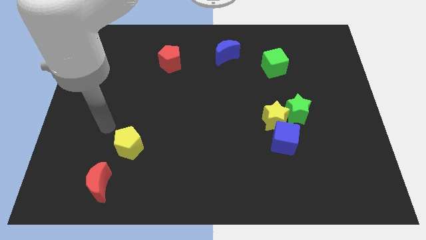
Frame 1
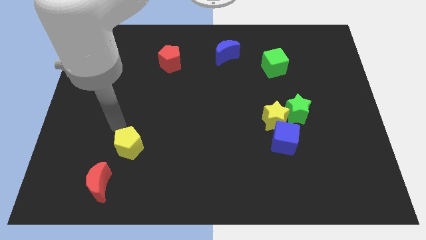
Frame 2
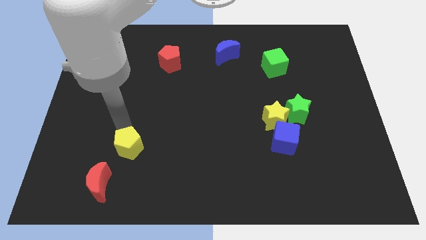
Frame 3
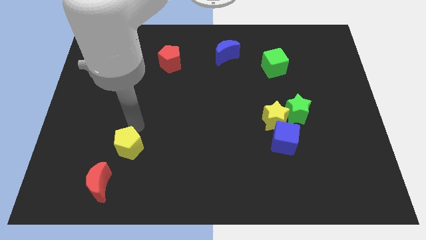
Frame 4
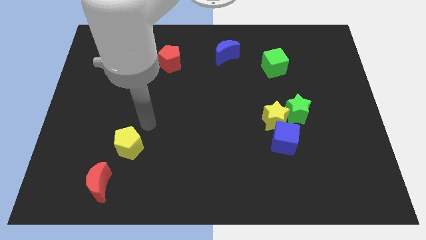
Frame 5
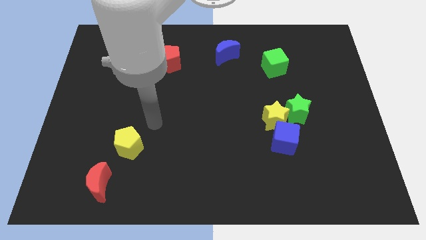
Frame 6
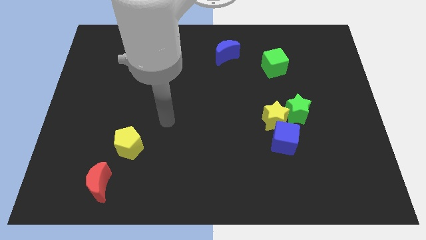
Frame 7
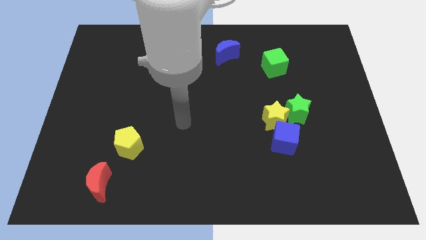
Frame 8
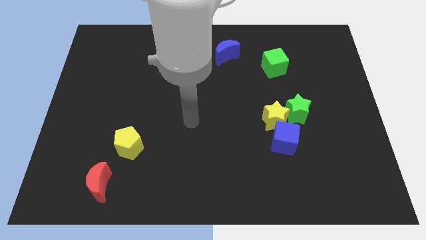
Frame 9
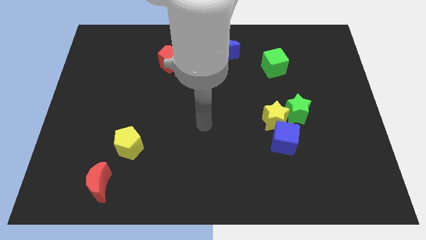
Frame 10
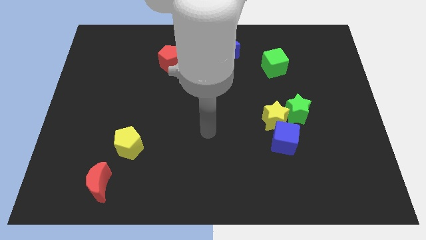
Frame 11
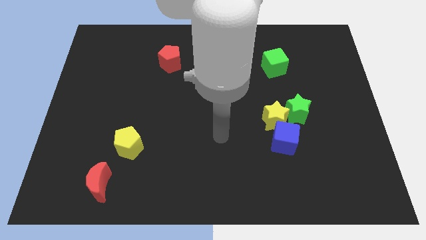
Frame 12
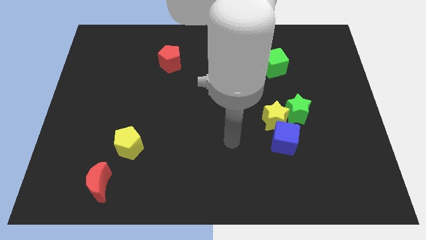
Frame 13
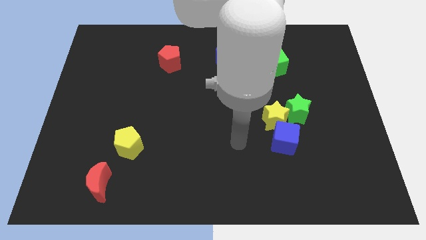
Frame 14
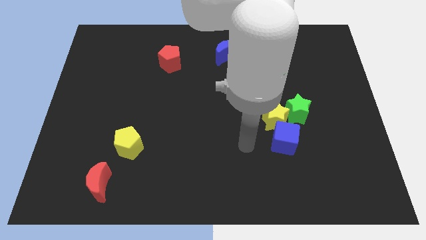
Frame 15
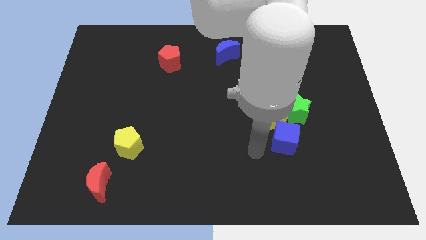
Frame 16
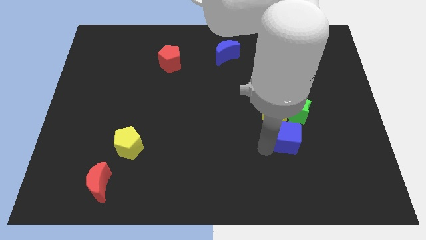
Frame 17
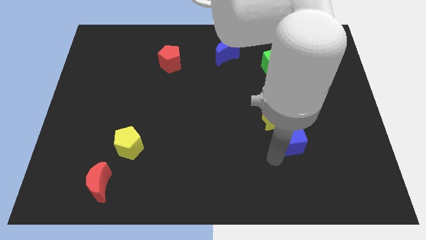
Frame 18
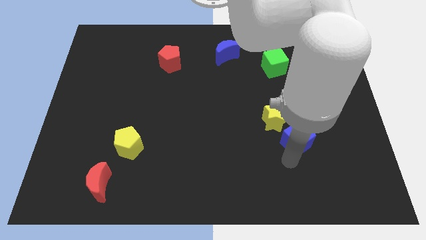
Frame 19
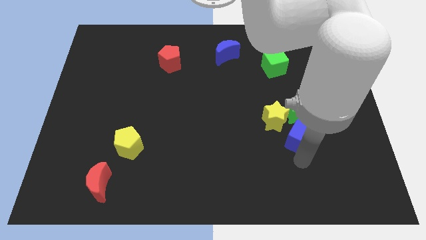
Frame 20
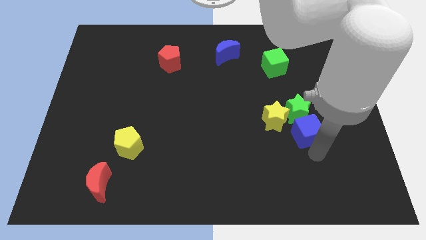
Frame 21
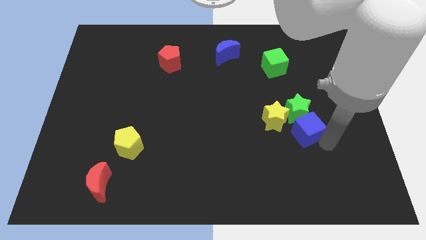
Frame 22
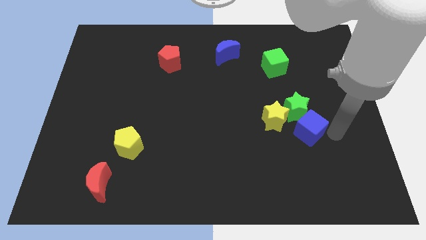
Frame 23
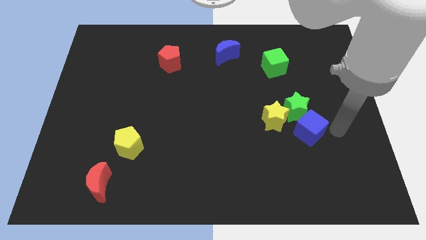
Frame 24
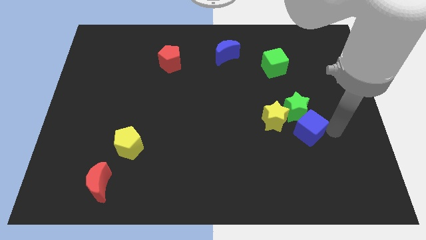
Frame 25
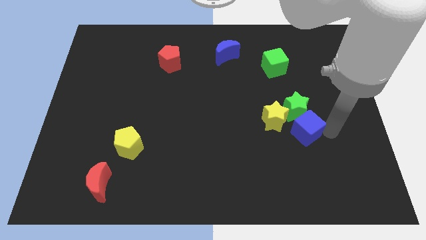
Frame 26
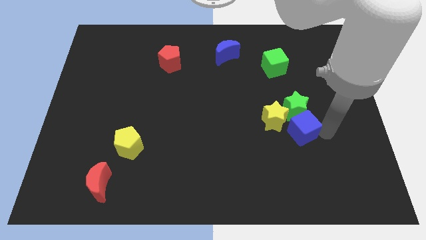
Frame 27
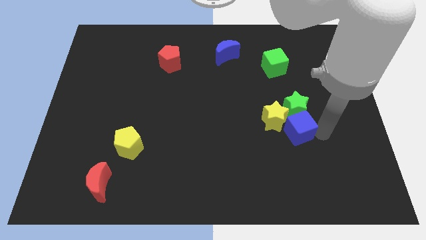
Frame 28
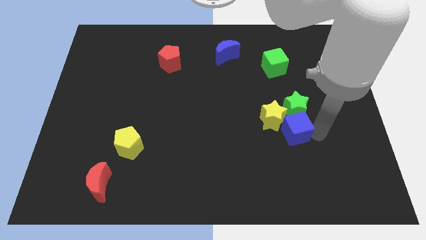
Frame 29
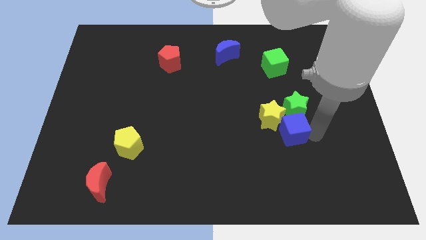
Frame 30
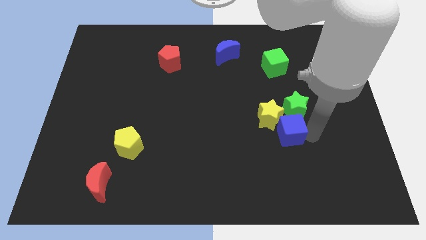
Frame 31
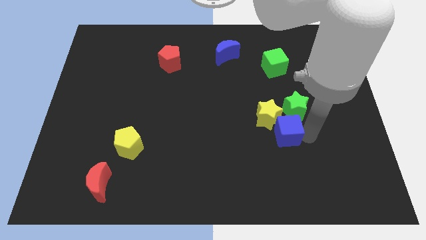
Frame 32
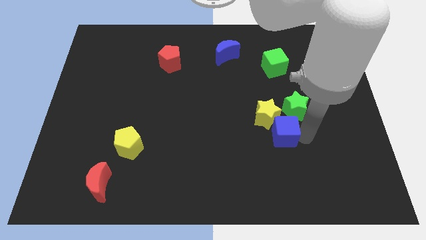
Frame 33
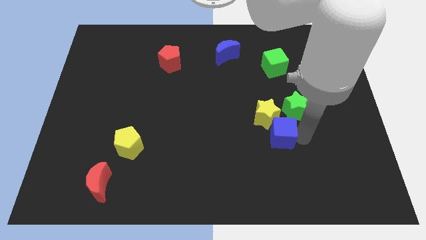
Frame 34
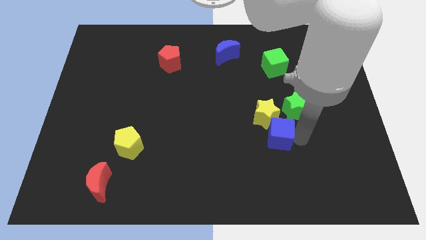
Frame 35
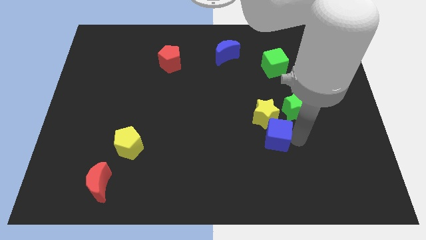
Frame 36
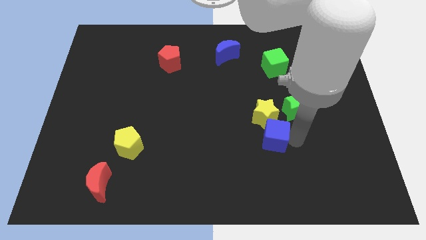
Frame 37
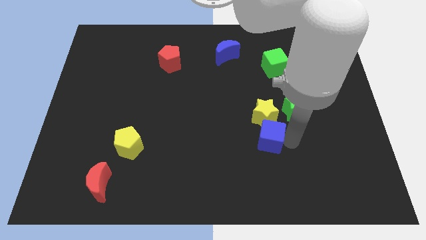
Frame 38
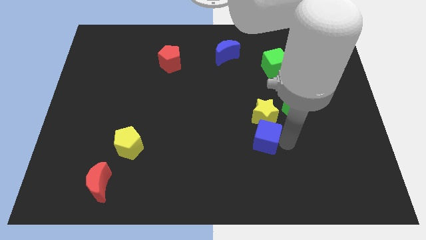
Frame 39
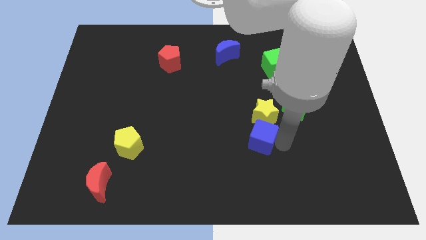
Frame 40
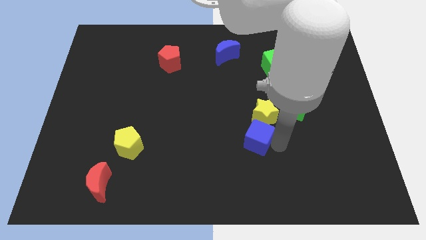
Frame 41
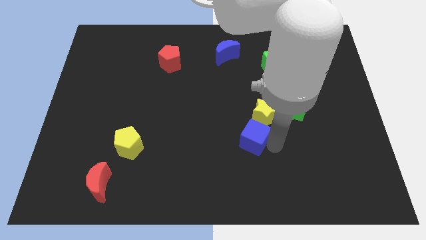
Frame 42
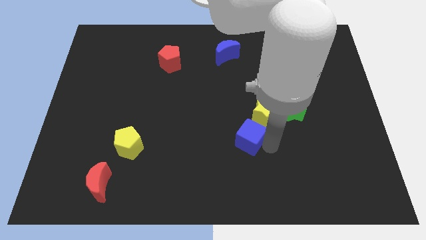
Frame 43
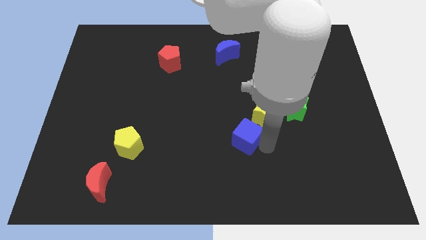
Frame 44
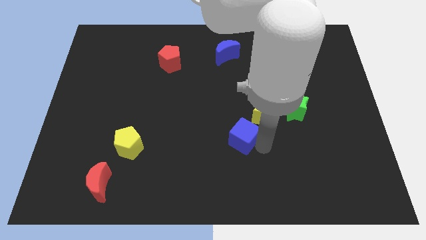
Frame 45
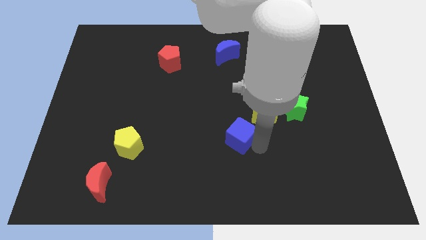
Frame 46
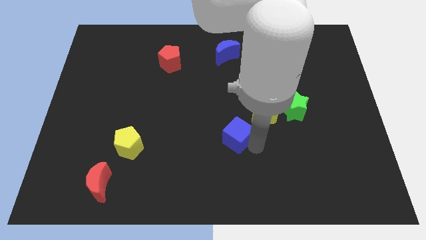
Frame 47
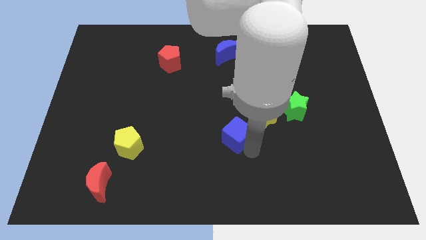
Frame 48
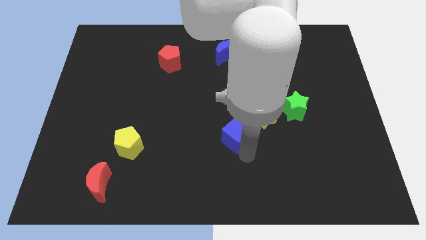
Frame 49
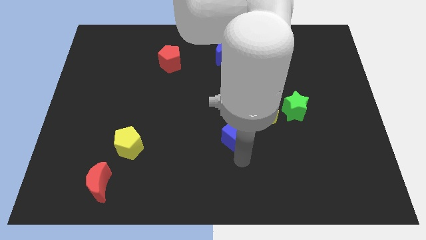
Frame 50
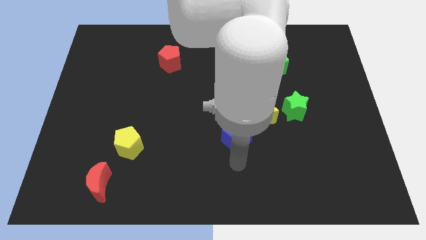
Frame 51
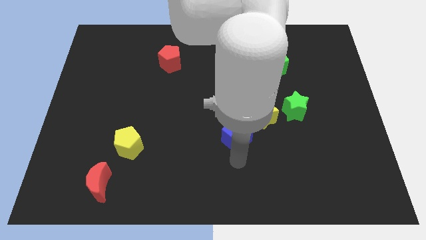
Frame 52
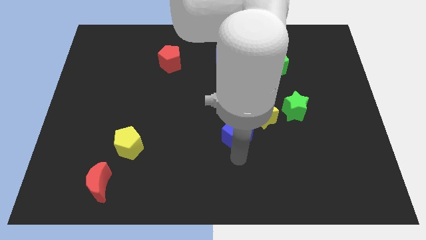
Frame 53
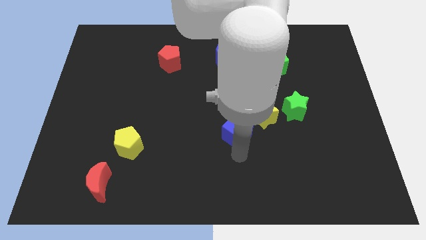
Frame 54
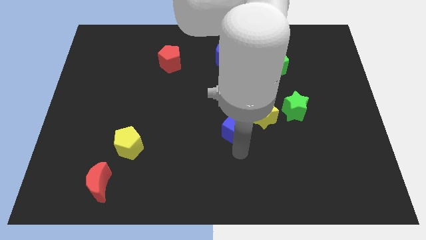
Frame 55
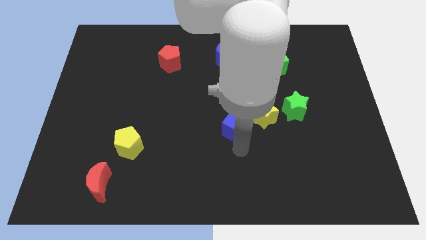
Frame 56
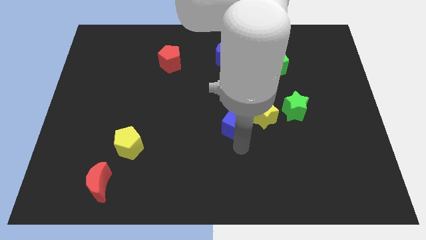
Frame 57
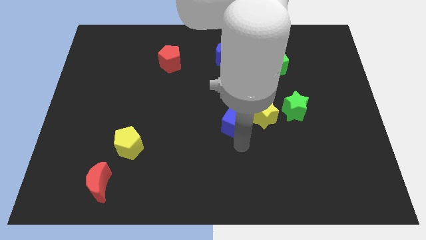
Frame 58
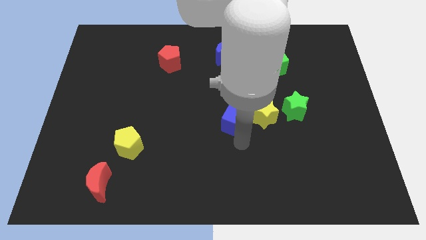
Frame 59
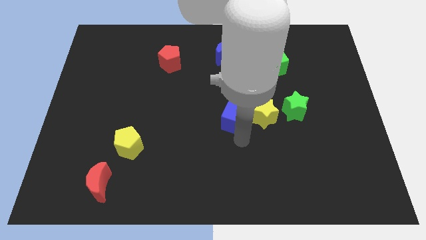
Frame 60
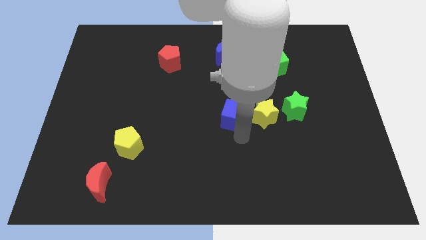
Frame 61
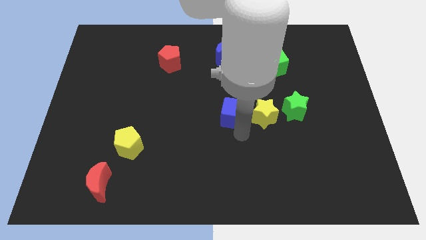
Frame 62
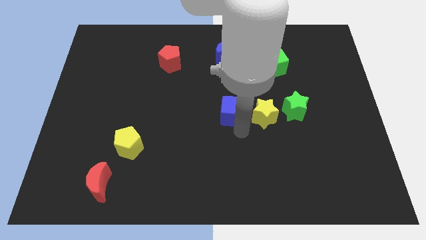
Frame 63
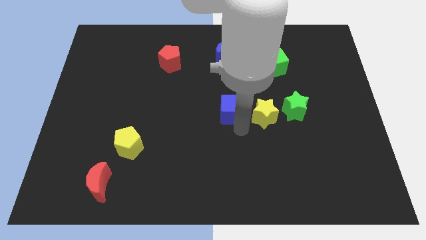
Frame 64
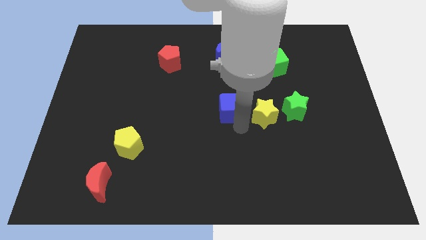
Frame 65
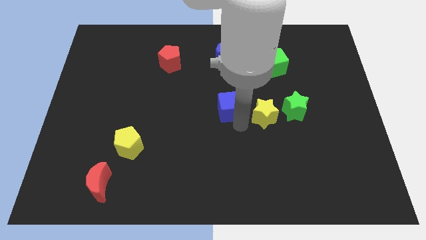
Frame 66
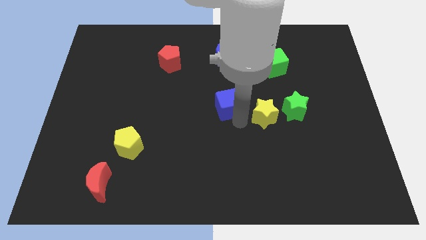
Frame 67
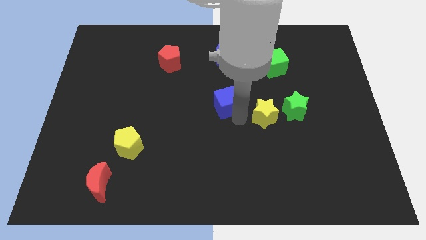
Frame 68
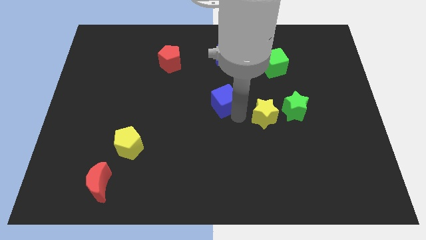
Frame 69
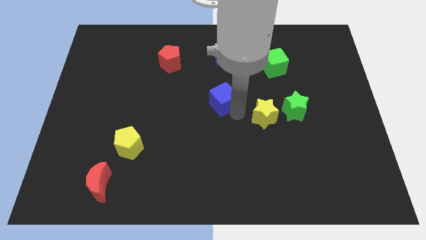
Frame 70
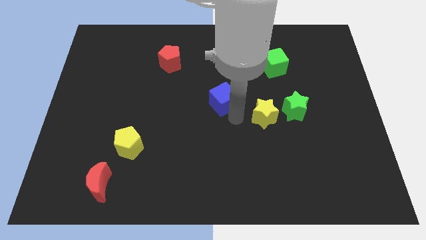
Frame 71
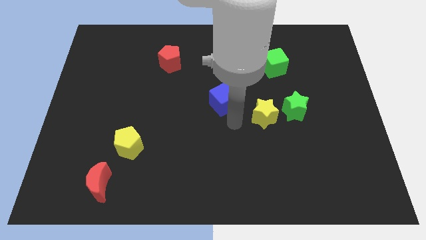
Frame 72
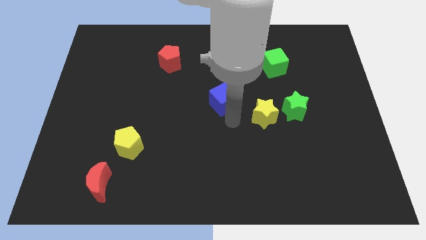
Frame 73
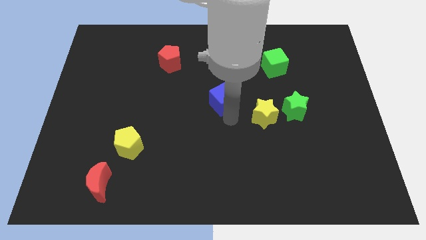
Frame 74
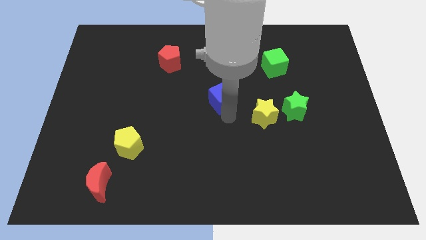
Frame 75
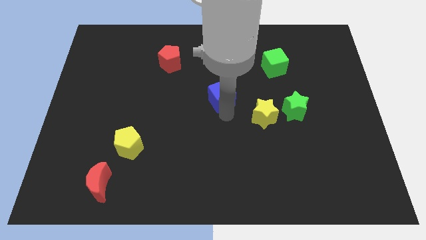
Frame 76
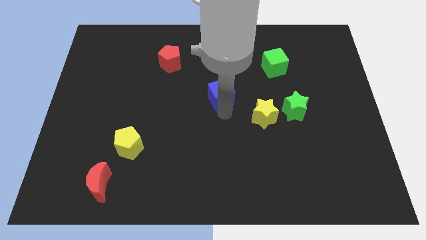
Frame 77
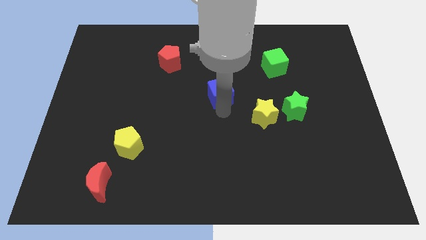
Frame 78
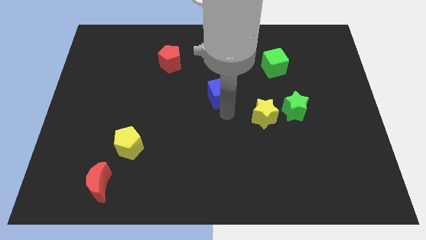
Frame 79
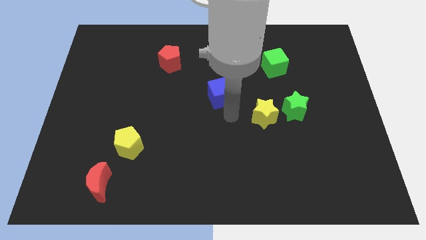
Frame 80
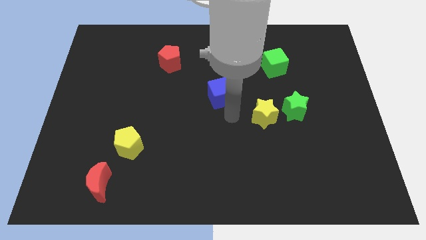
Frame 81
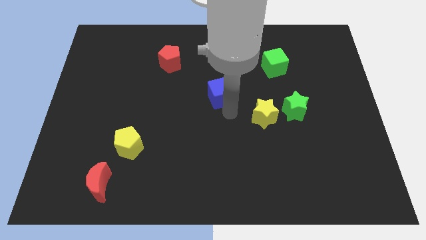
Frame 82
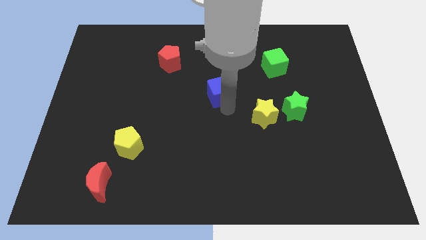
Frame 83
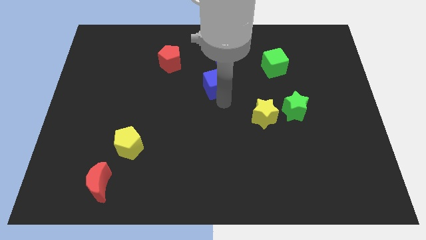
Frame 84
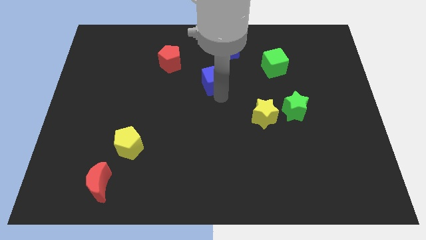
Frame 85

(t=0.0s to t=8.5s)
slide the blue cube to the bottom left side of the blue moon

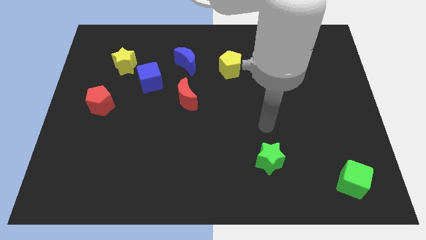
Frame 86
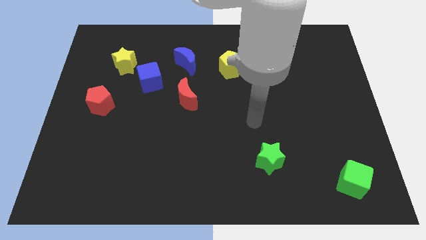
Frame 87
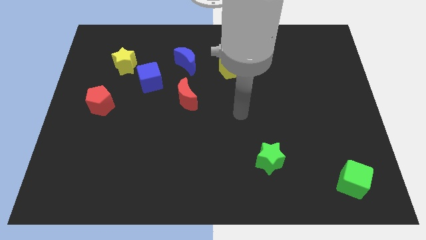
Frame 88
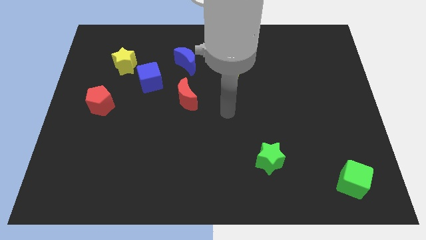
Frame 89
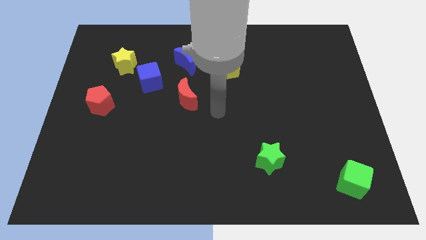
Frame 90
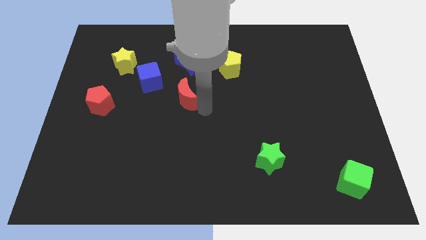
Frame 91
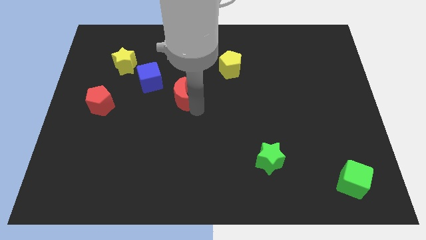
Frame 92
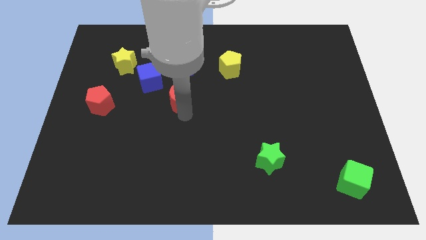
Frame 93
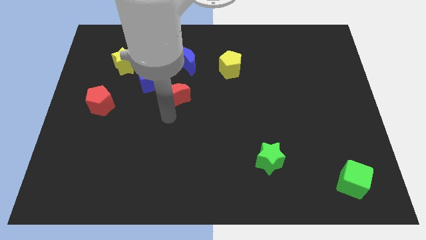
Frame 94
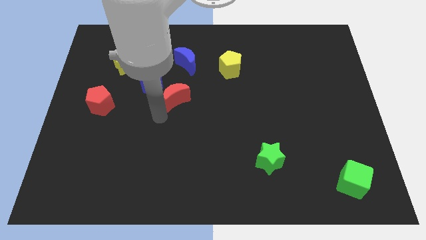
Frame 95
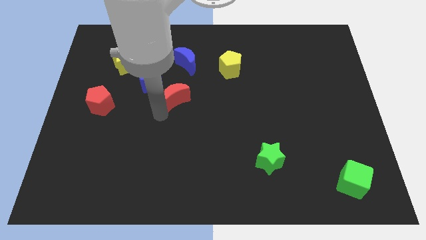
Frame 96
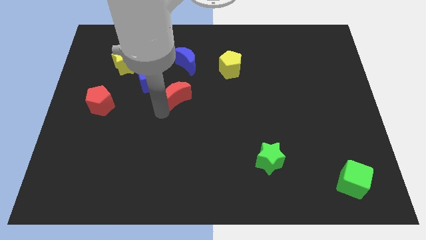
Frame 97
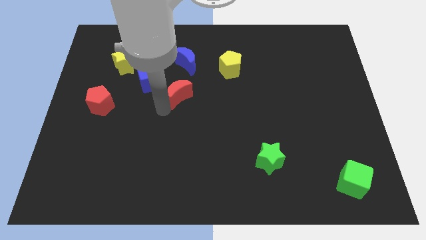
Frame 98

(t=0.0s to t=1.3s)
push the red moon to the right side of the blue cube
